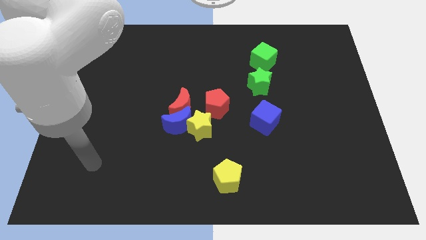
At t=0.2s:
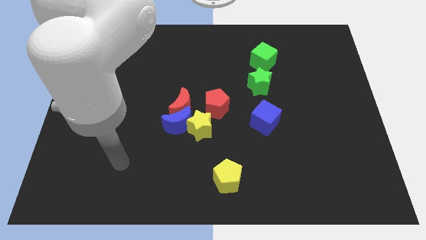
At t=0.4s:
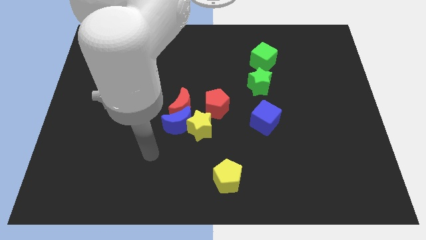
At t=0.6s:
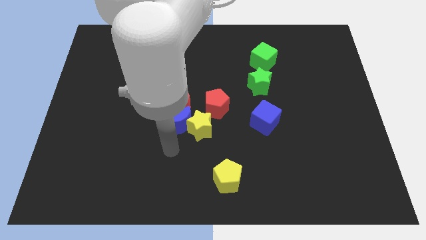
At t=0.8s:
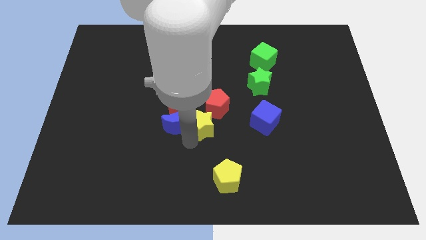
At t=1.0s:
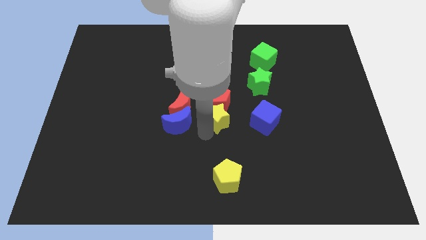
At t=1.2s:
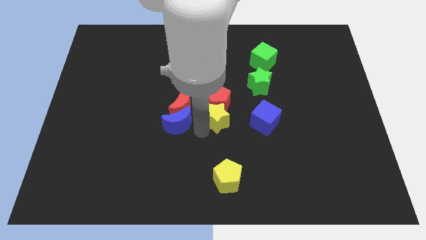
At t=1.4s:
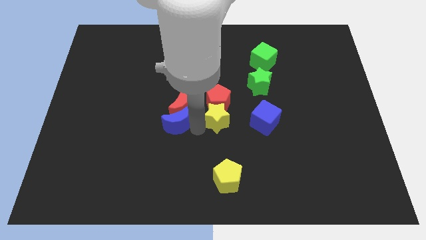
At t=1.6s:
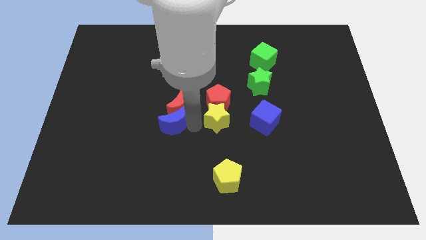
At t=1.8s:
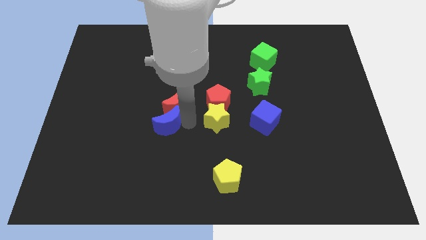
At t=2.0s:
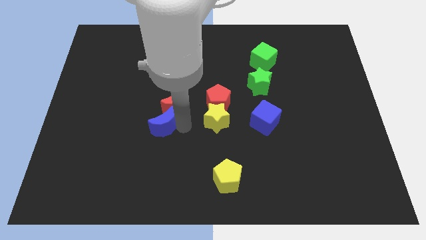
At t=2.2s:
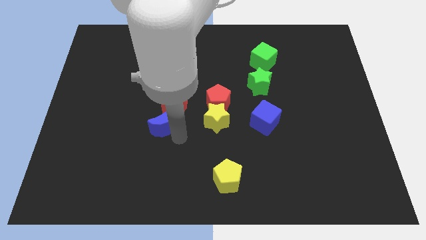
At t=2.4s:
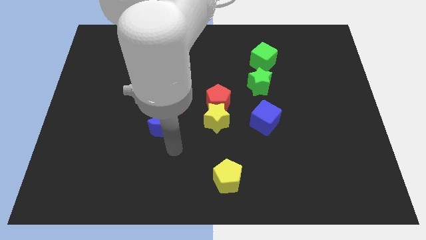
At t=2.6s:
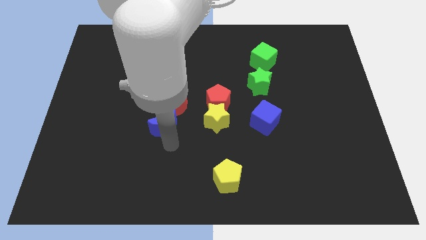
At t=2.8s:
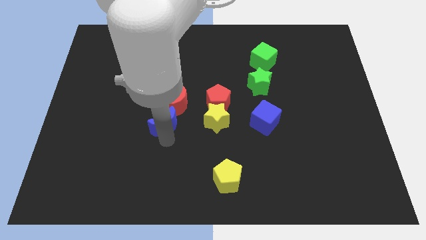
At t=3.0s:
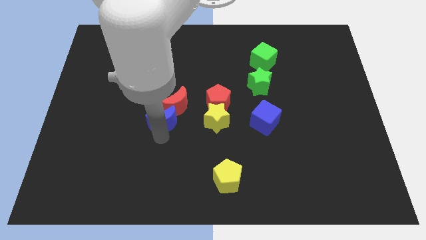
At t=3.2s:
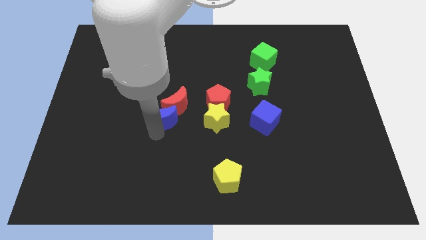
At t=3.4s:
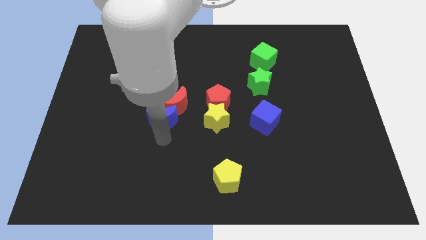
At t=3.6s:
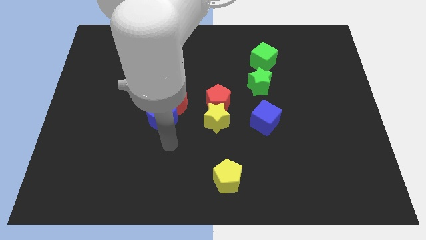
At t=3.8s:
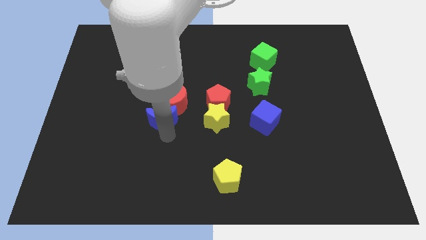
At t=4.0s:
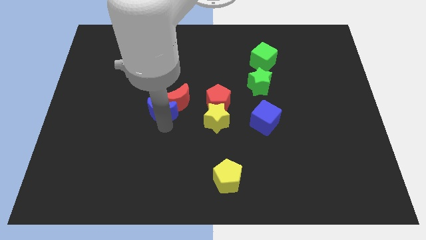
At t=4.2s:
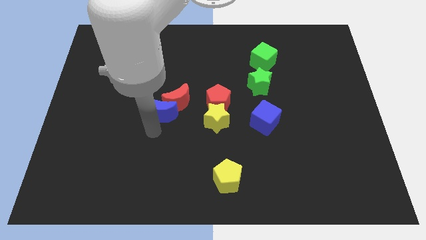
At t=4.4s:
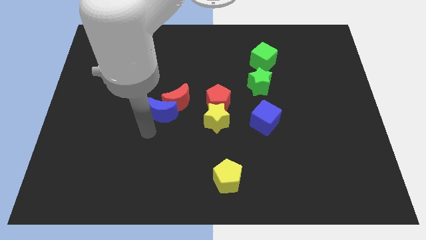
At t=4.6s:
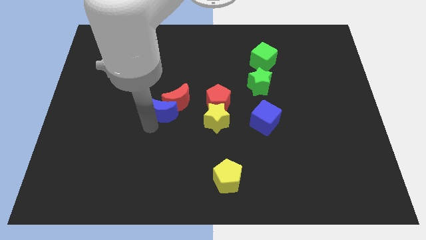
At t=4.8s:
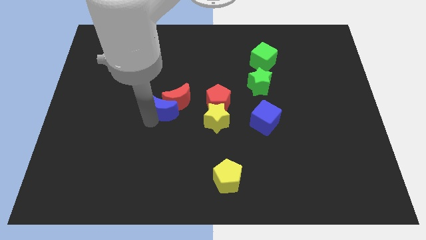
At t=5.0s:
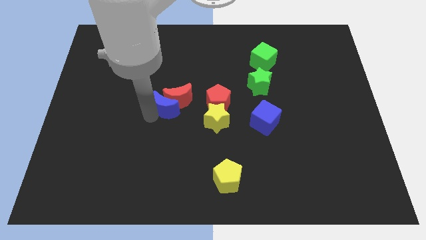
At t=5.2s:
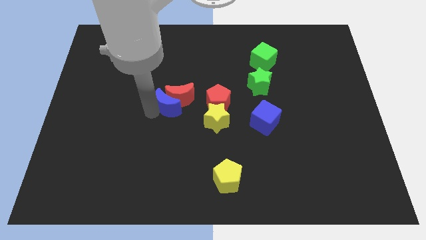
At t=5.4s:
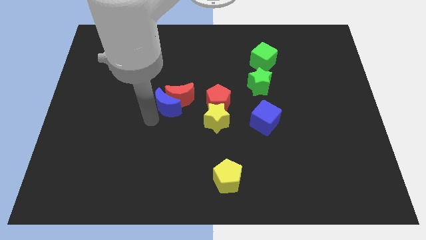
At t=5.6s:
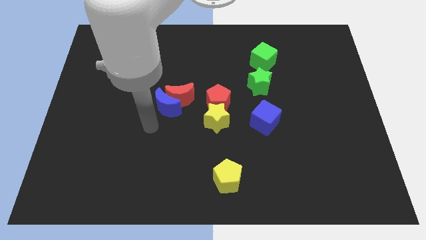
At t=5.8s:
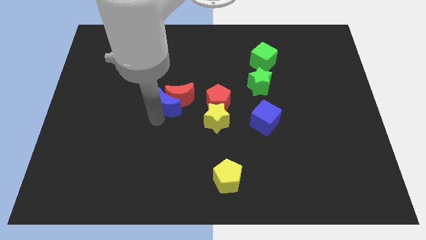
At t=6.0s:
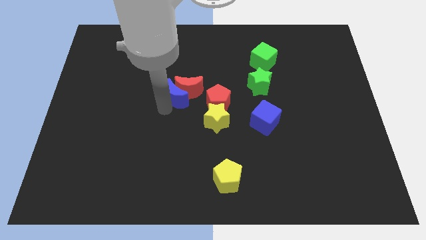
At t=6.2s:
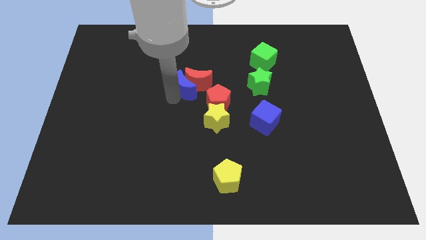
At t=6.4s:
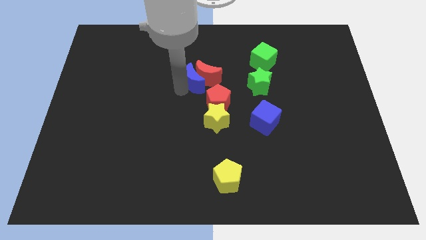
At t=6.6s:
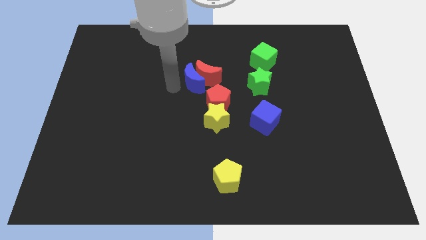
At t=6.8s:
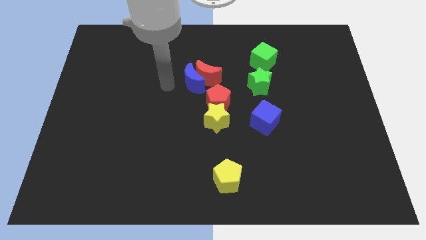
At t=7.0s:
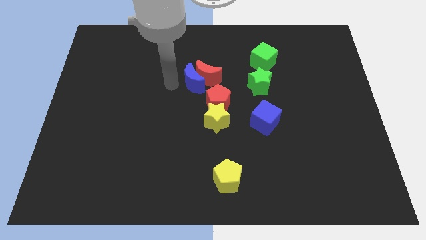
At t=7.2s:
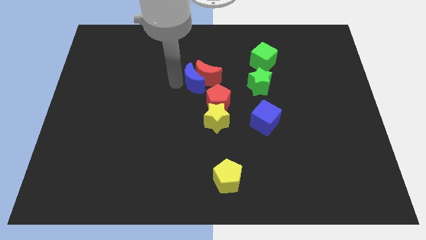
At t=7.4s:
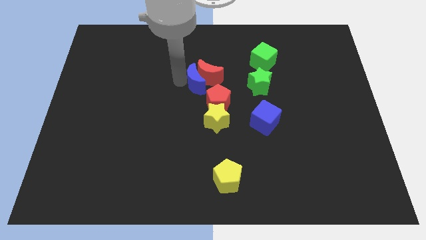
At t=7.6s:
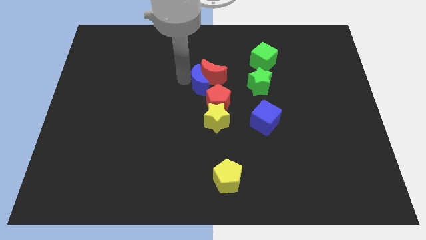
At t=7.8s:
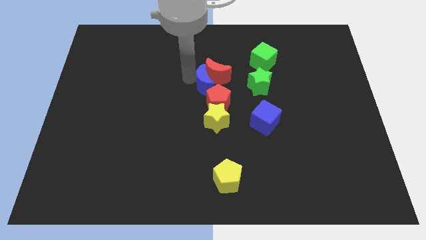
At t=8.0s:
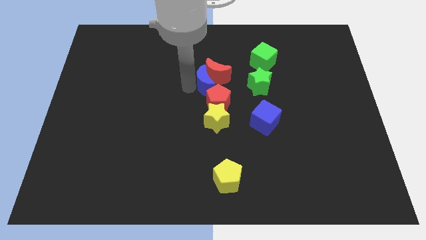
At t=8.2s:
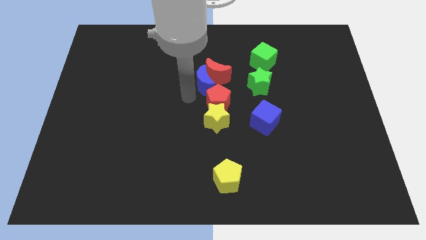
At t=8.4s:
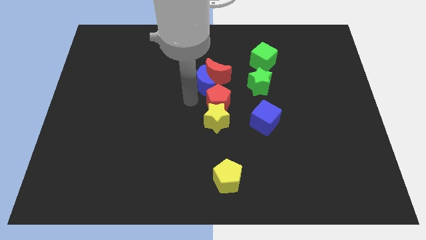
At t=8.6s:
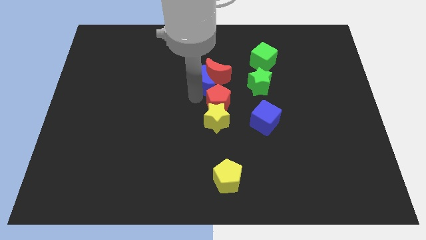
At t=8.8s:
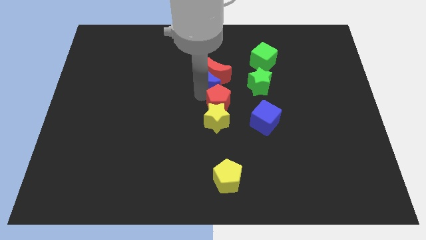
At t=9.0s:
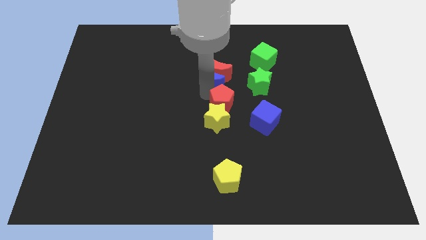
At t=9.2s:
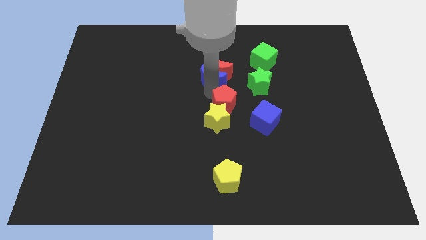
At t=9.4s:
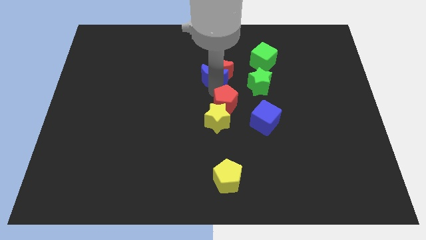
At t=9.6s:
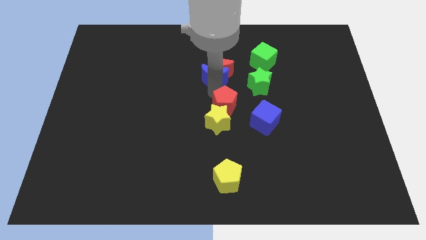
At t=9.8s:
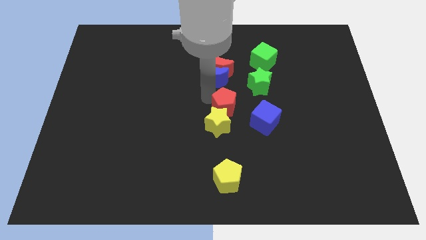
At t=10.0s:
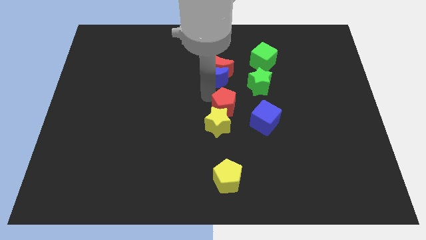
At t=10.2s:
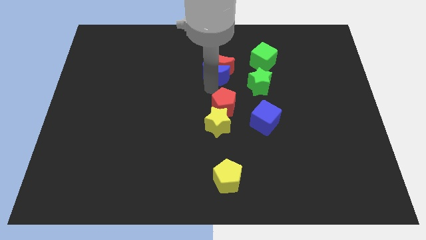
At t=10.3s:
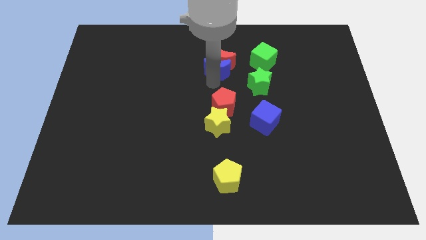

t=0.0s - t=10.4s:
push the blue moon left of the green cube

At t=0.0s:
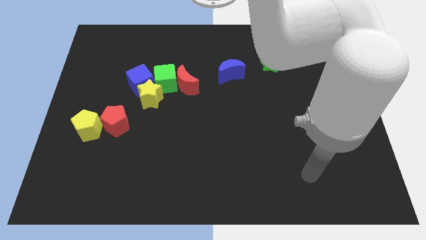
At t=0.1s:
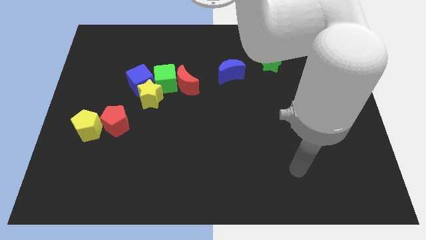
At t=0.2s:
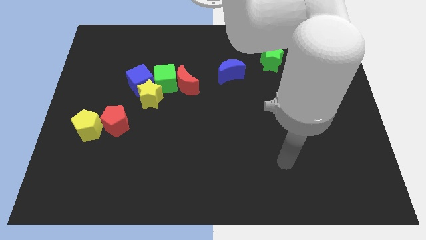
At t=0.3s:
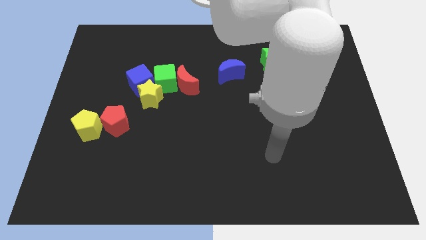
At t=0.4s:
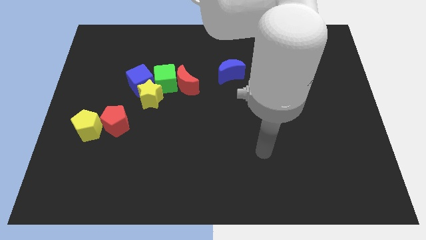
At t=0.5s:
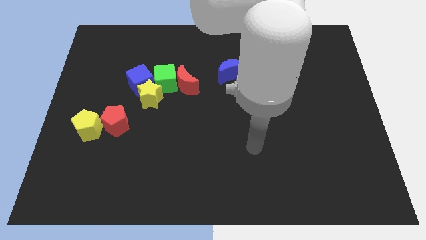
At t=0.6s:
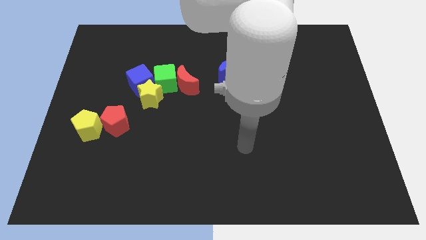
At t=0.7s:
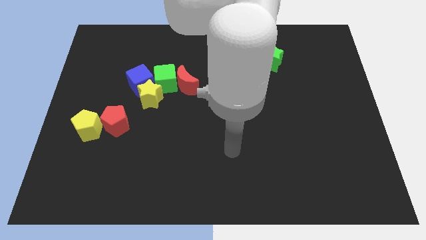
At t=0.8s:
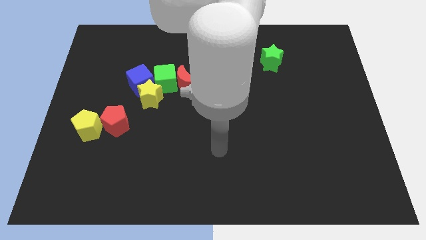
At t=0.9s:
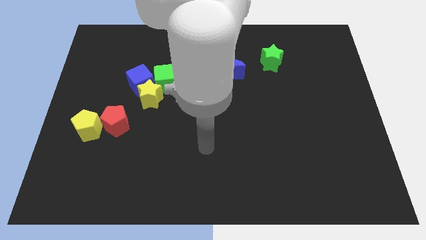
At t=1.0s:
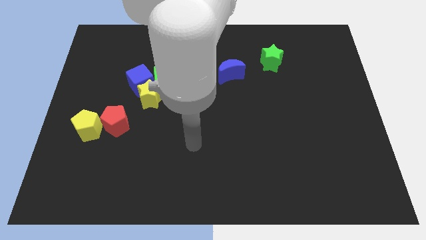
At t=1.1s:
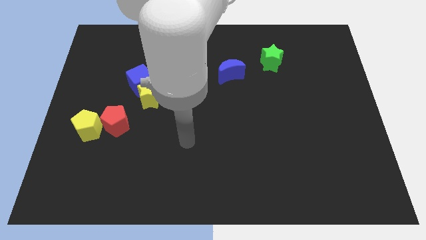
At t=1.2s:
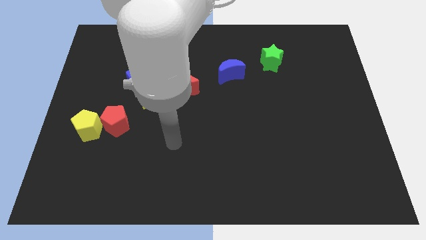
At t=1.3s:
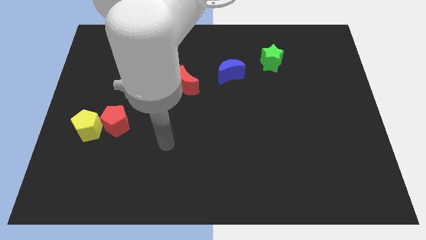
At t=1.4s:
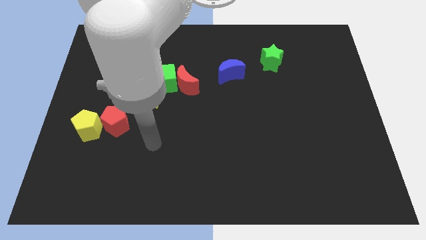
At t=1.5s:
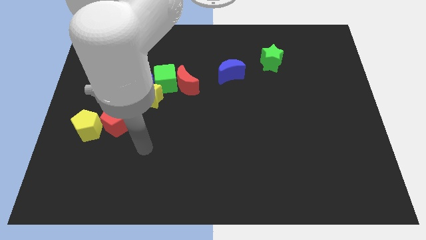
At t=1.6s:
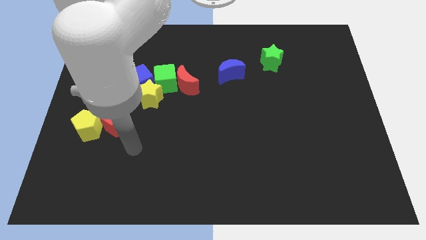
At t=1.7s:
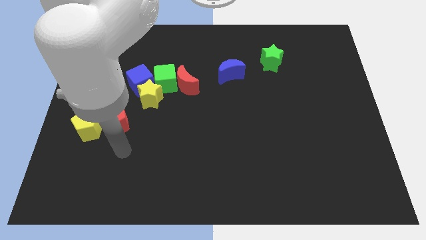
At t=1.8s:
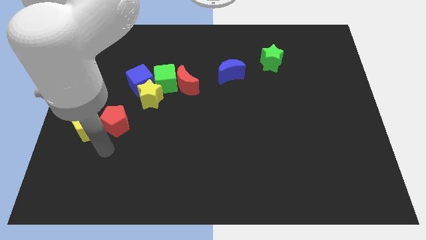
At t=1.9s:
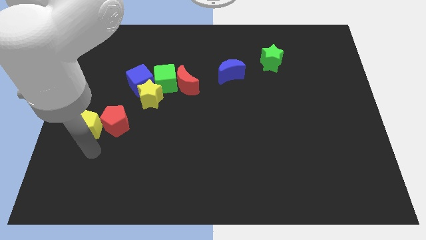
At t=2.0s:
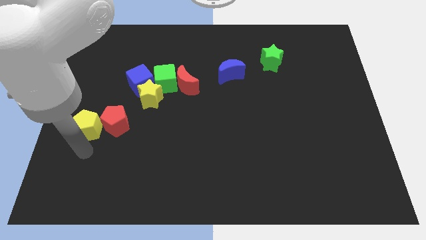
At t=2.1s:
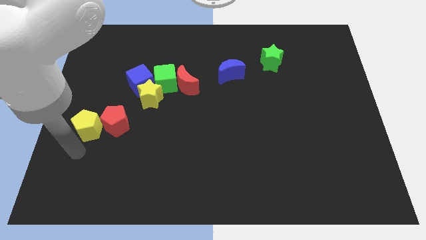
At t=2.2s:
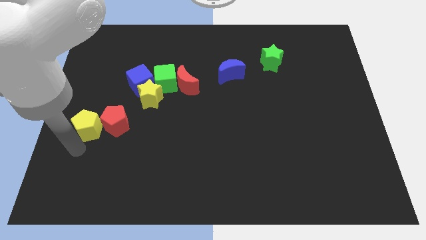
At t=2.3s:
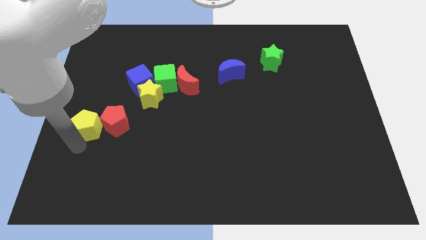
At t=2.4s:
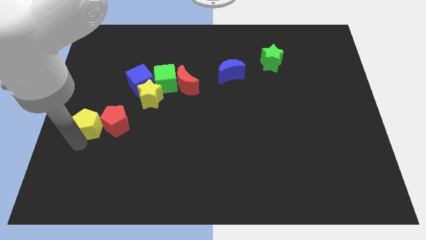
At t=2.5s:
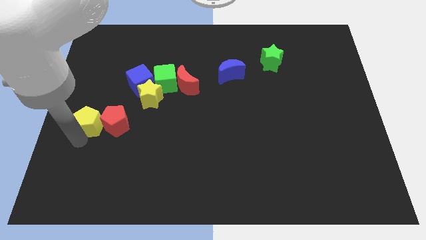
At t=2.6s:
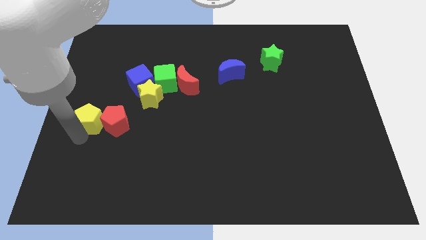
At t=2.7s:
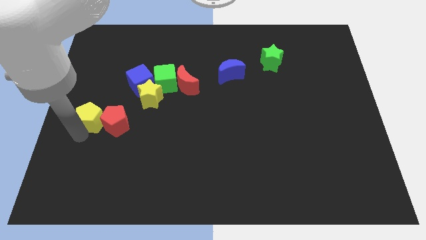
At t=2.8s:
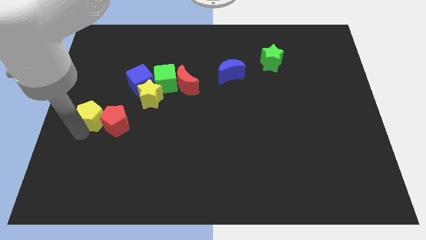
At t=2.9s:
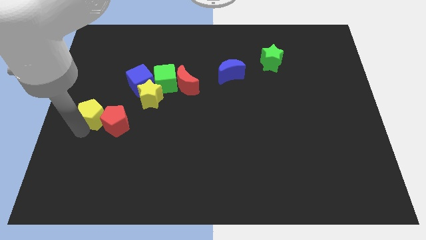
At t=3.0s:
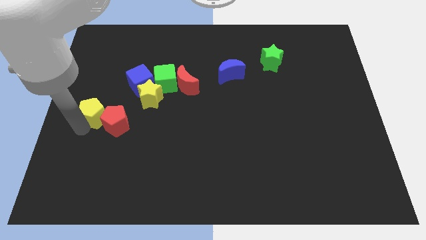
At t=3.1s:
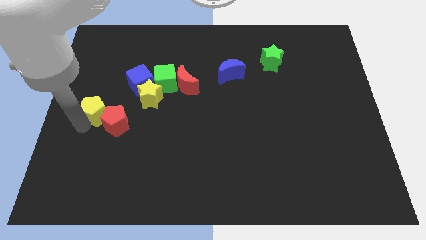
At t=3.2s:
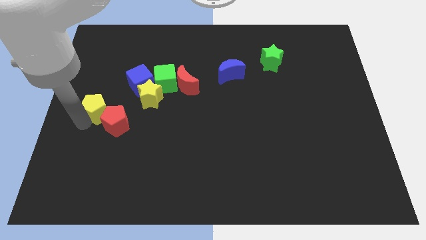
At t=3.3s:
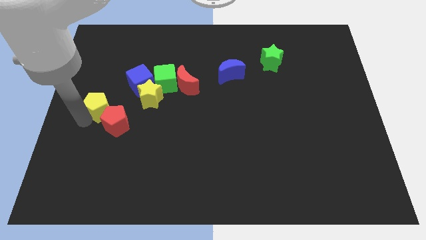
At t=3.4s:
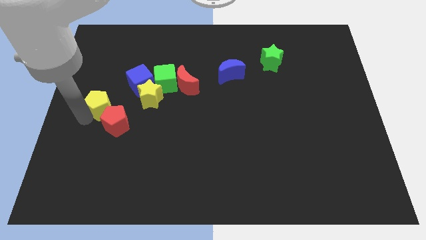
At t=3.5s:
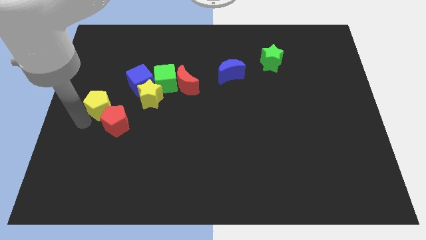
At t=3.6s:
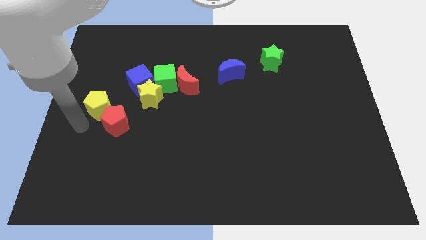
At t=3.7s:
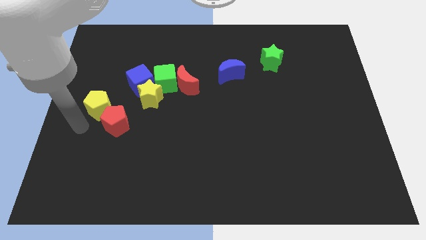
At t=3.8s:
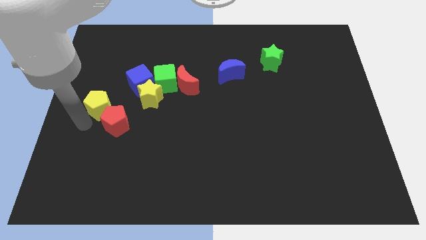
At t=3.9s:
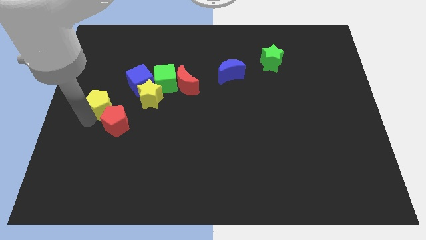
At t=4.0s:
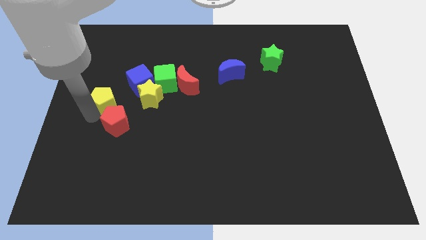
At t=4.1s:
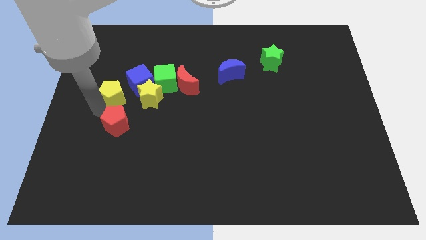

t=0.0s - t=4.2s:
move the yellow pentagon to the left side of the green cube
